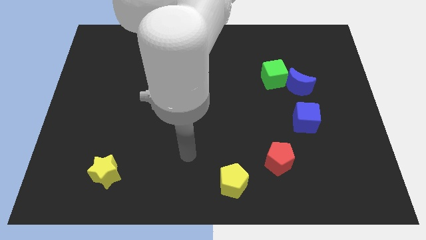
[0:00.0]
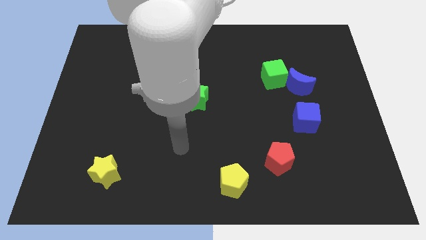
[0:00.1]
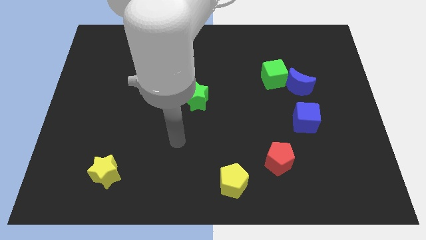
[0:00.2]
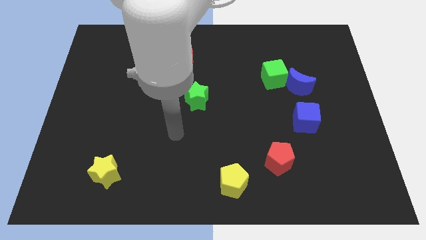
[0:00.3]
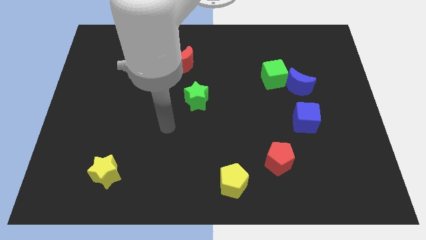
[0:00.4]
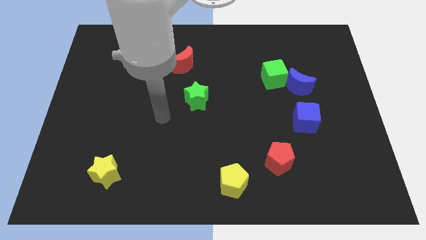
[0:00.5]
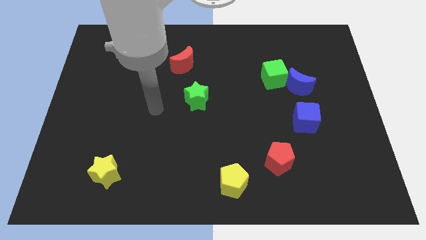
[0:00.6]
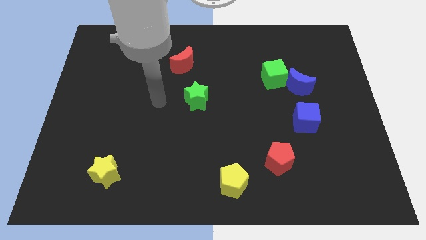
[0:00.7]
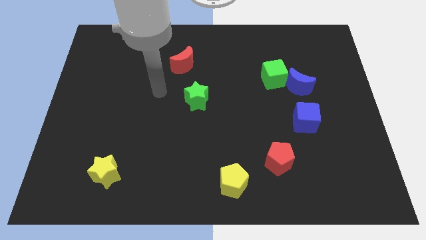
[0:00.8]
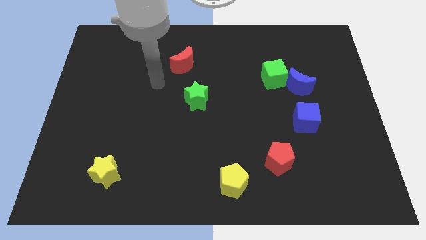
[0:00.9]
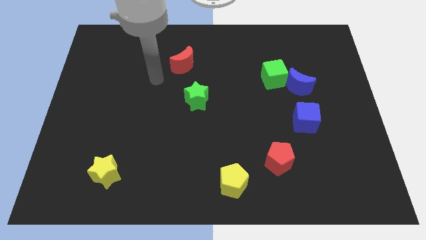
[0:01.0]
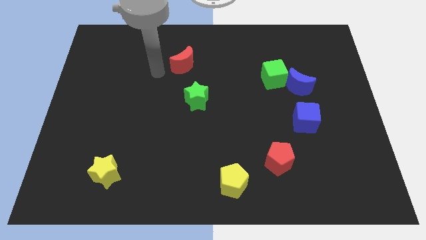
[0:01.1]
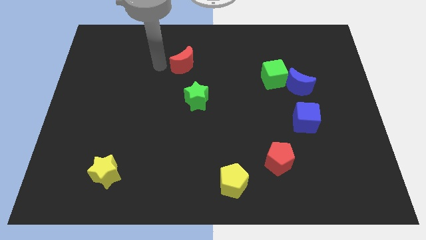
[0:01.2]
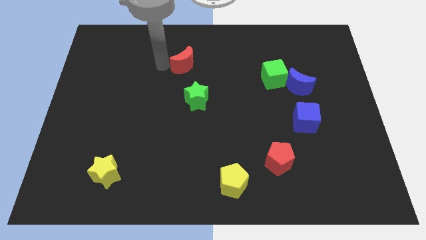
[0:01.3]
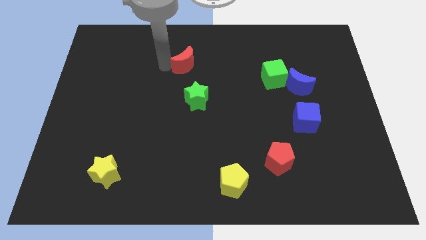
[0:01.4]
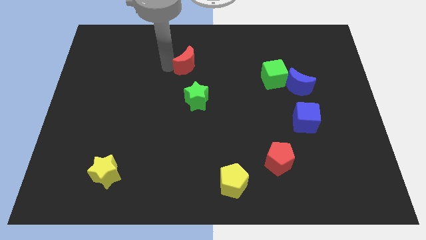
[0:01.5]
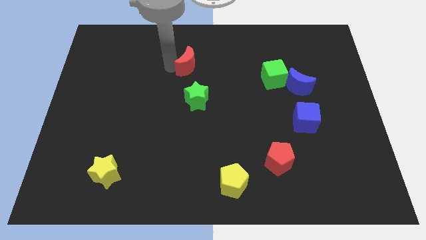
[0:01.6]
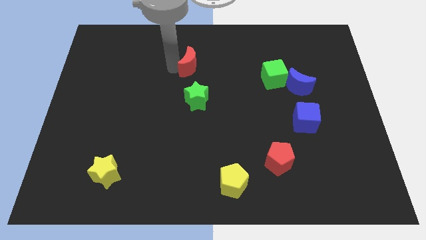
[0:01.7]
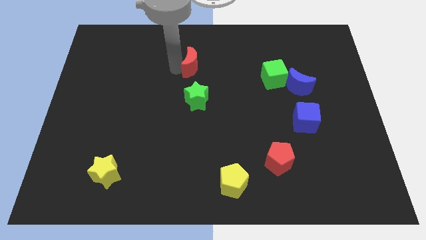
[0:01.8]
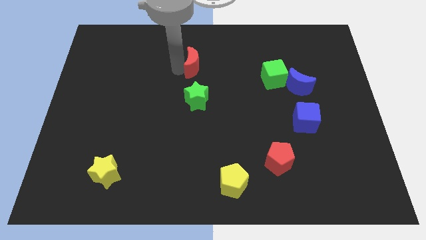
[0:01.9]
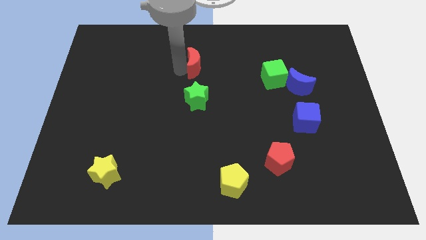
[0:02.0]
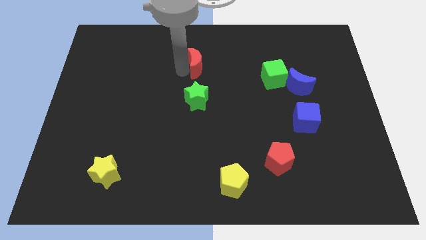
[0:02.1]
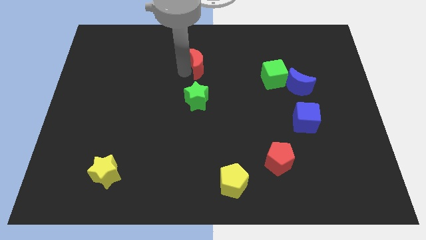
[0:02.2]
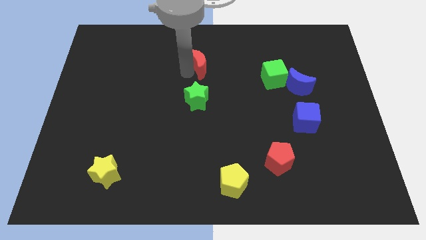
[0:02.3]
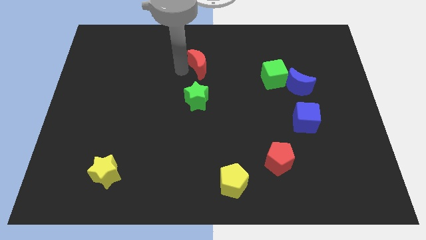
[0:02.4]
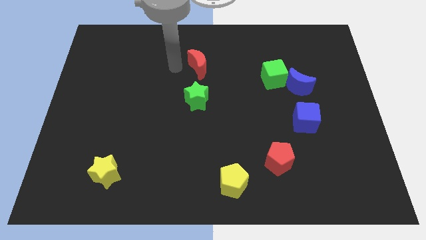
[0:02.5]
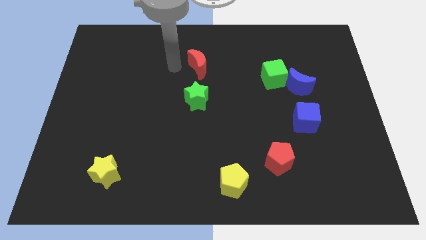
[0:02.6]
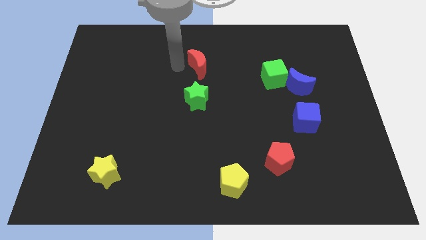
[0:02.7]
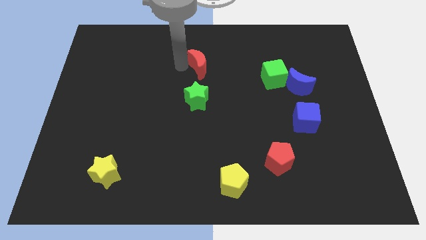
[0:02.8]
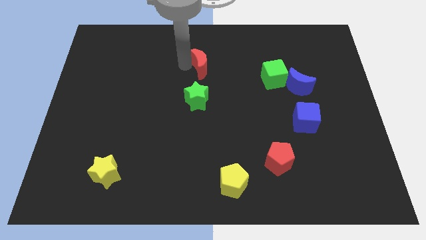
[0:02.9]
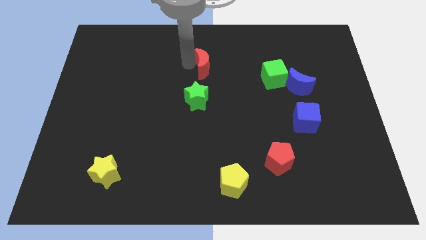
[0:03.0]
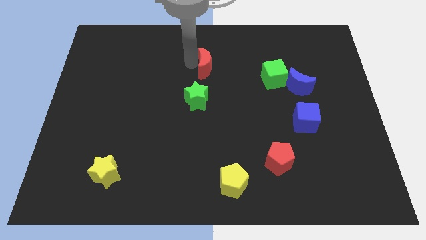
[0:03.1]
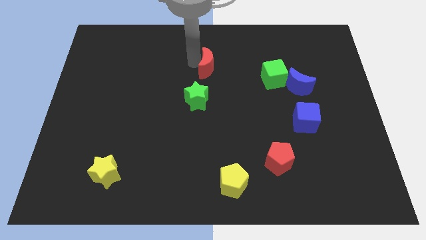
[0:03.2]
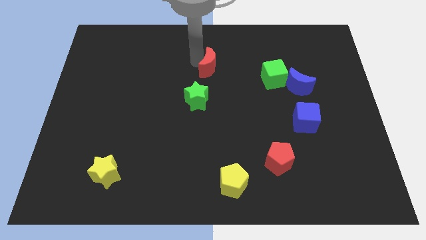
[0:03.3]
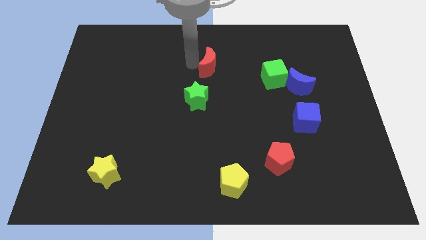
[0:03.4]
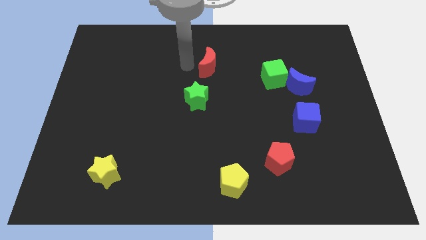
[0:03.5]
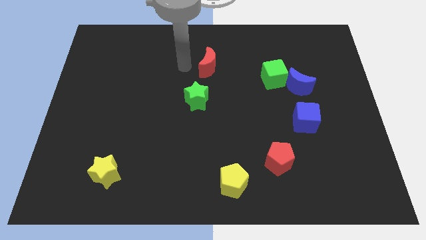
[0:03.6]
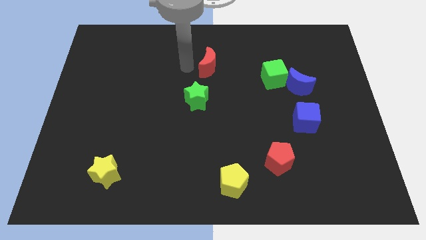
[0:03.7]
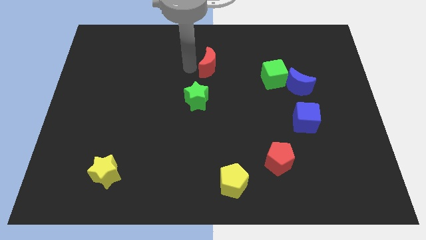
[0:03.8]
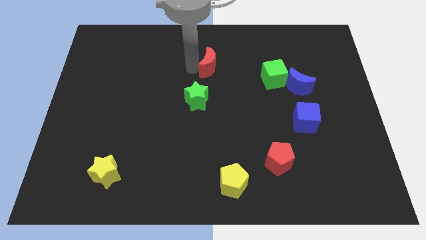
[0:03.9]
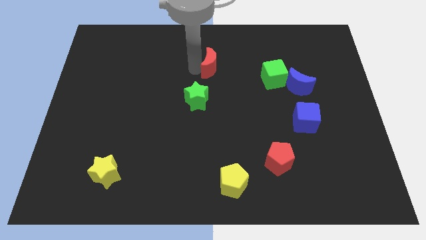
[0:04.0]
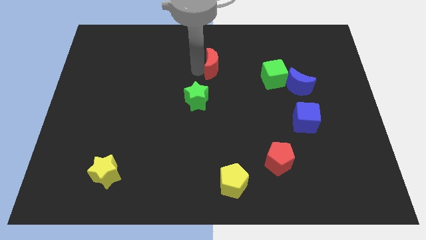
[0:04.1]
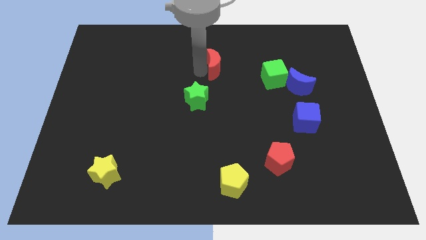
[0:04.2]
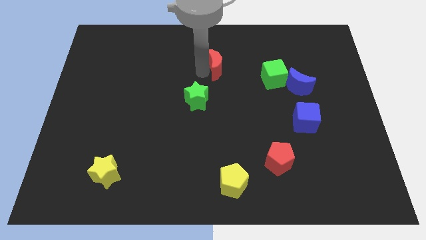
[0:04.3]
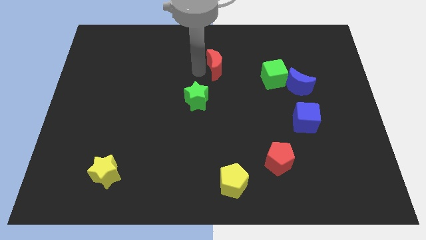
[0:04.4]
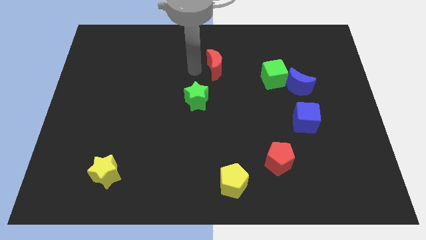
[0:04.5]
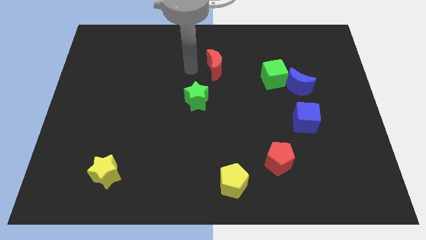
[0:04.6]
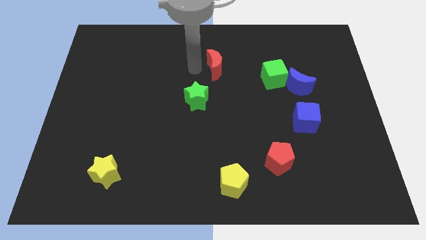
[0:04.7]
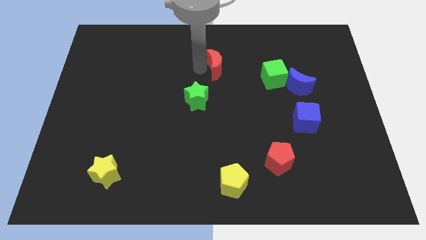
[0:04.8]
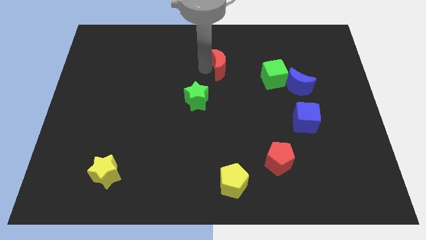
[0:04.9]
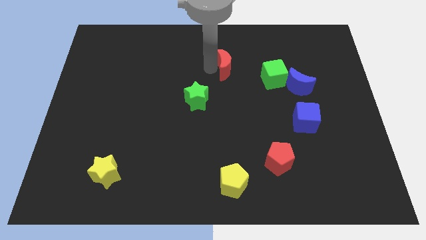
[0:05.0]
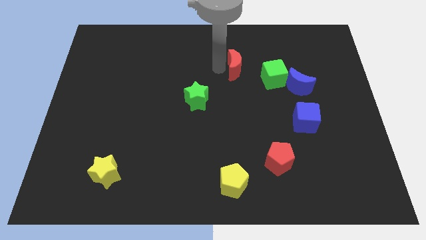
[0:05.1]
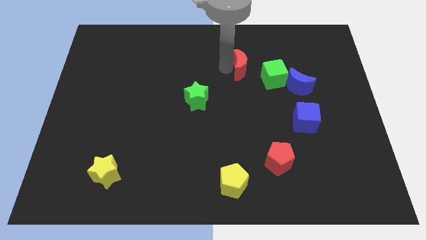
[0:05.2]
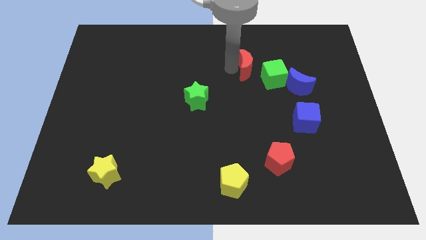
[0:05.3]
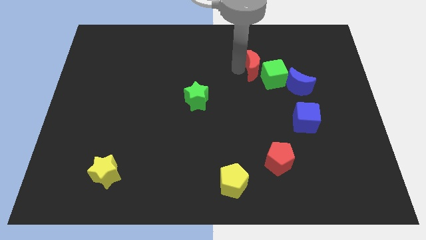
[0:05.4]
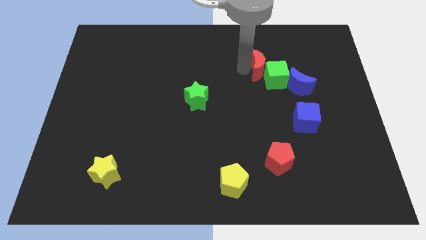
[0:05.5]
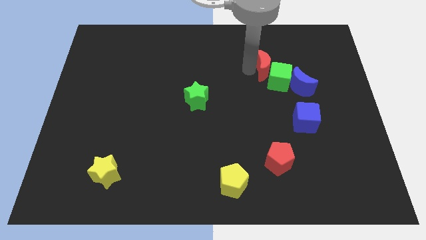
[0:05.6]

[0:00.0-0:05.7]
push the red moon to the right

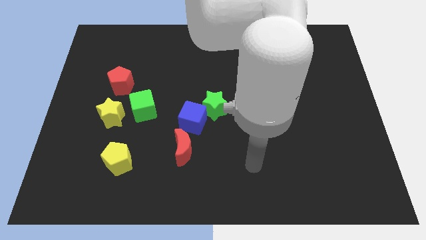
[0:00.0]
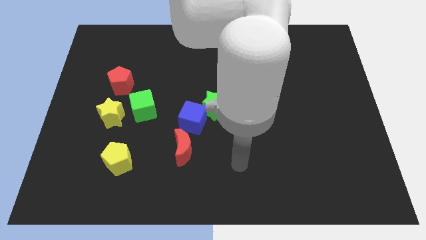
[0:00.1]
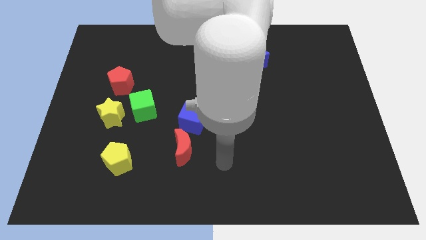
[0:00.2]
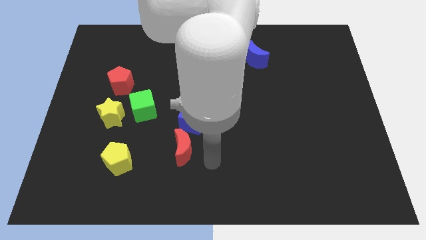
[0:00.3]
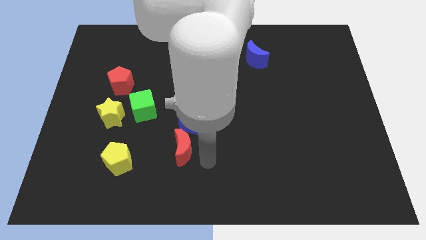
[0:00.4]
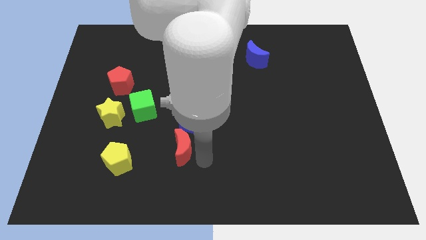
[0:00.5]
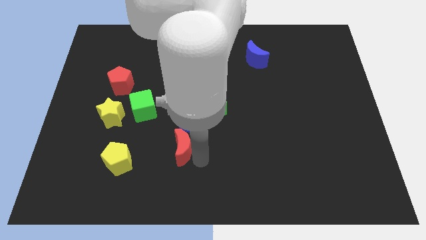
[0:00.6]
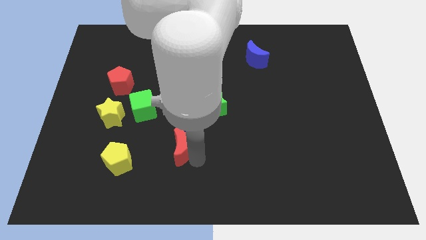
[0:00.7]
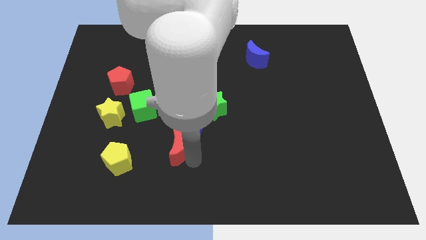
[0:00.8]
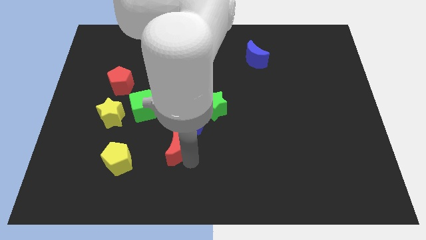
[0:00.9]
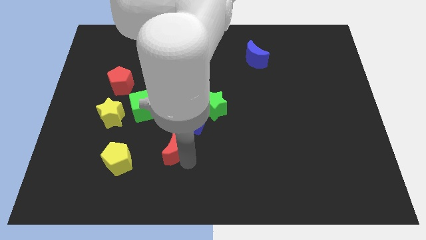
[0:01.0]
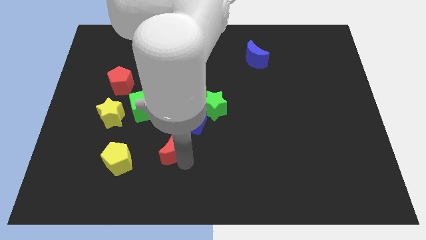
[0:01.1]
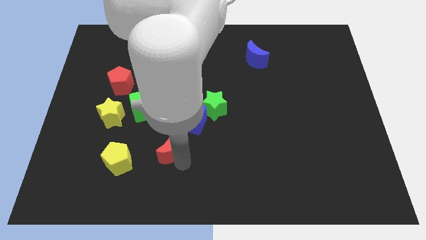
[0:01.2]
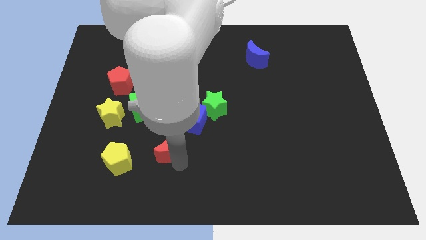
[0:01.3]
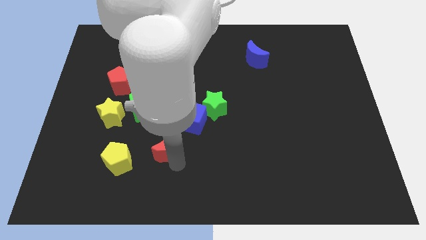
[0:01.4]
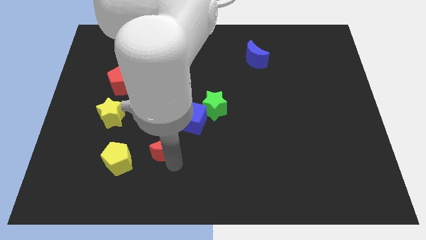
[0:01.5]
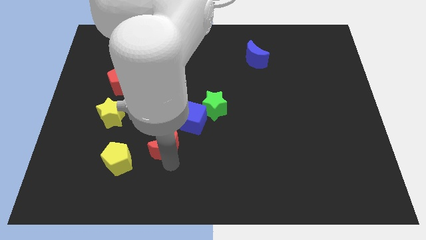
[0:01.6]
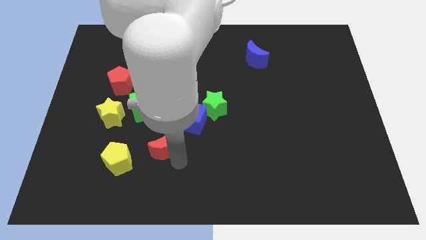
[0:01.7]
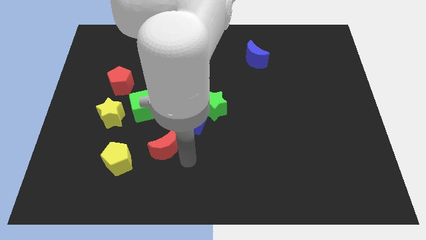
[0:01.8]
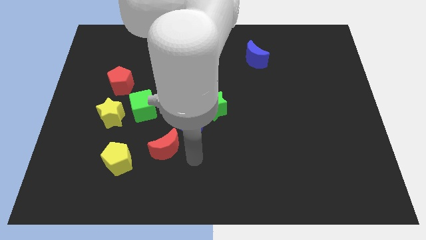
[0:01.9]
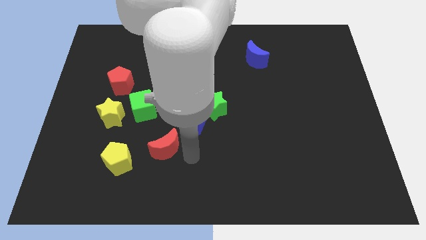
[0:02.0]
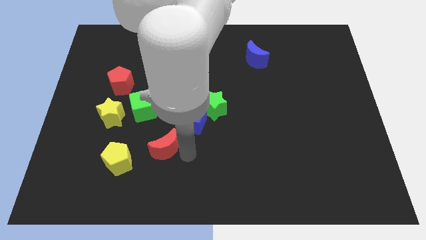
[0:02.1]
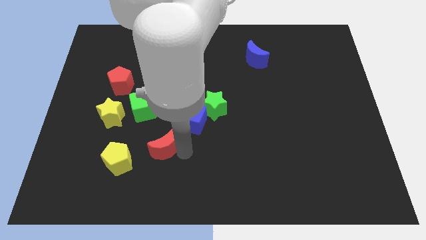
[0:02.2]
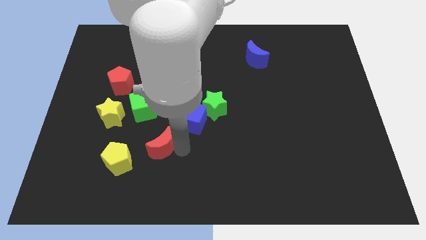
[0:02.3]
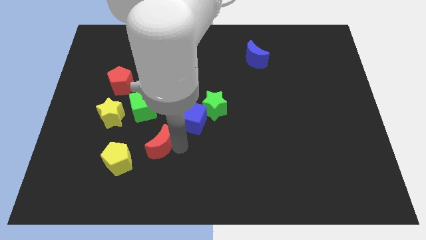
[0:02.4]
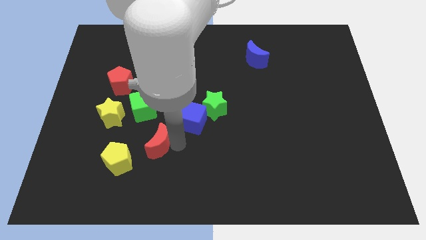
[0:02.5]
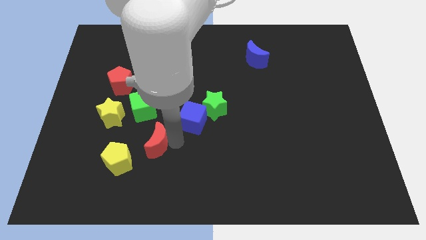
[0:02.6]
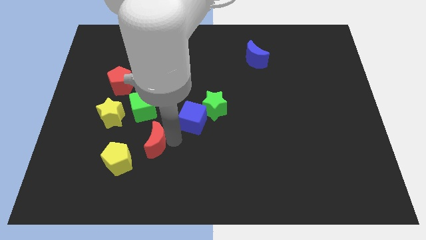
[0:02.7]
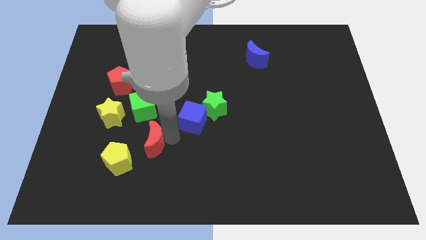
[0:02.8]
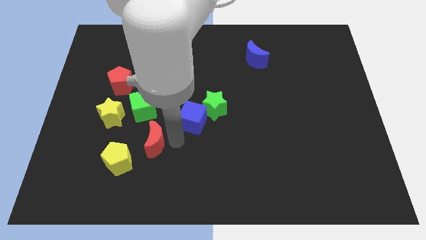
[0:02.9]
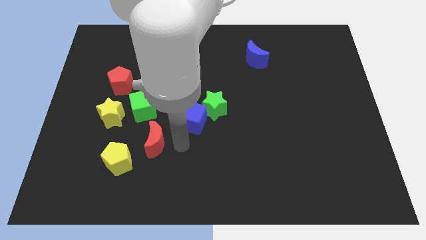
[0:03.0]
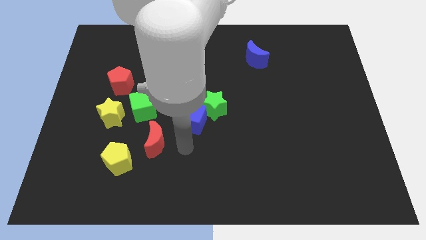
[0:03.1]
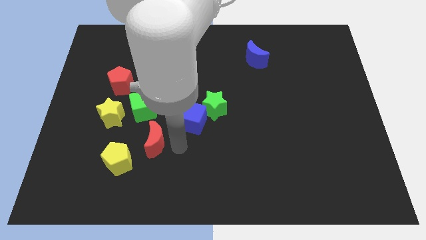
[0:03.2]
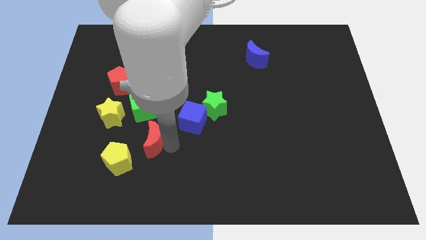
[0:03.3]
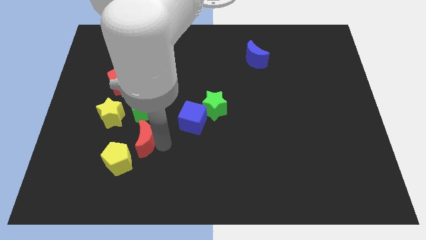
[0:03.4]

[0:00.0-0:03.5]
push the red moon a little to the left
